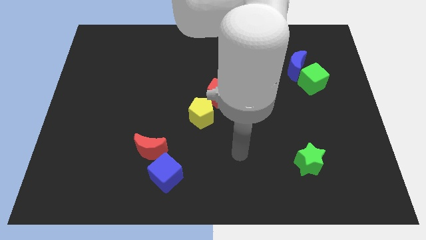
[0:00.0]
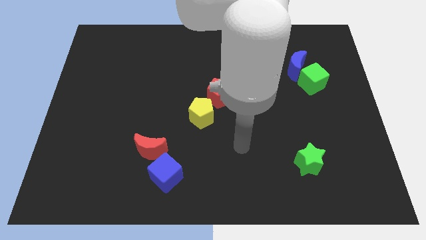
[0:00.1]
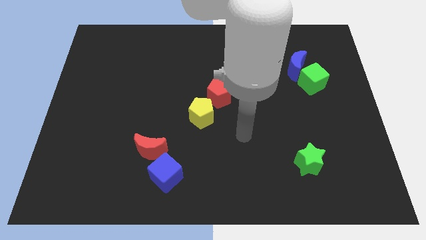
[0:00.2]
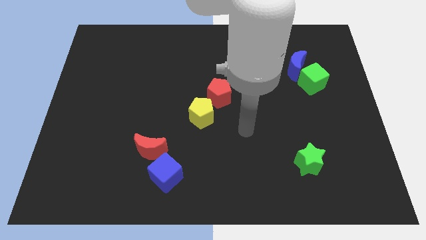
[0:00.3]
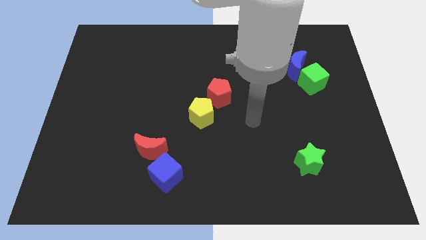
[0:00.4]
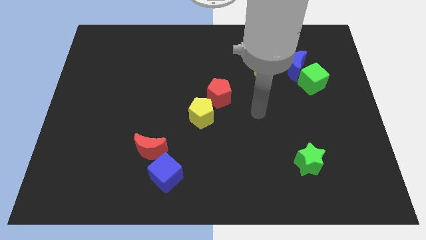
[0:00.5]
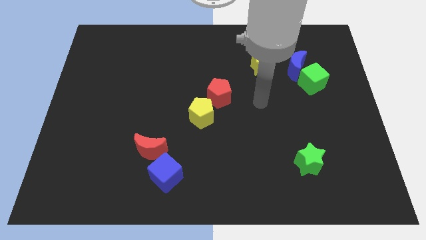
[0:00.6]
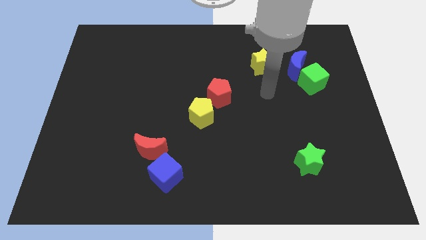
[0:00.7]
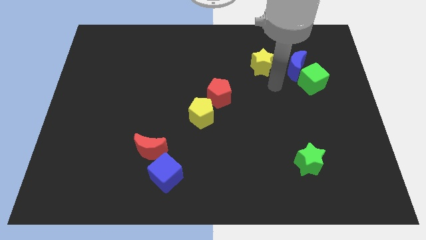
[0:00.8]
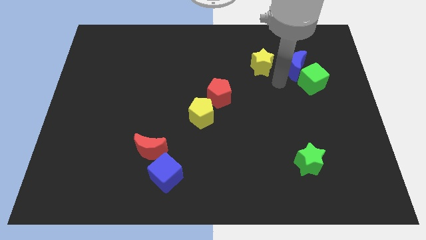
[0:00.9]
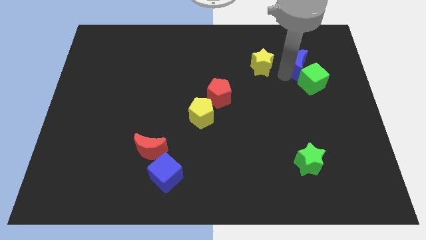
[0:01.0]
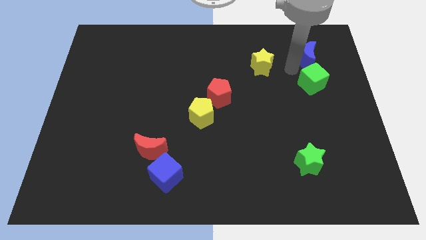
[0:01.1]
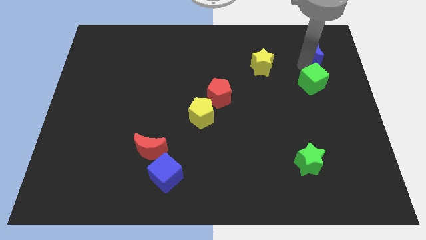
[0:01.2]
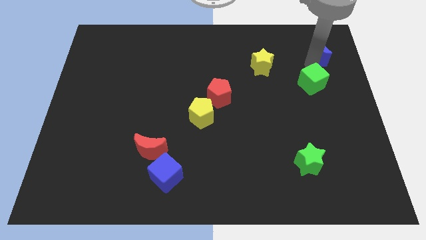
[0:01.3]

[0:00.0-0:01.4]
separate the green cube from the blue moon

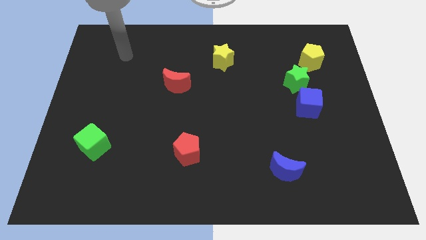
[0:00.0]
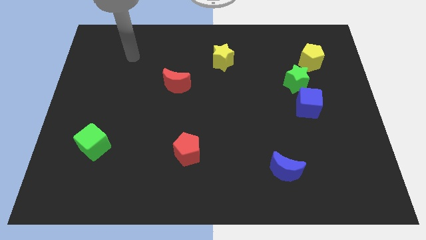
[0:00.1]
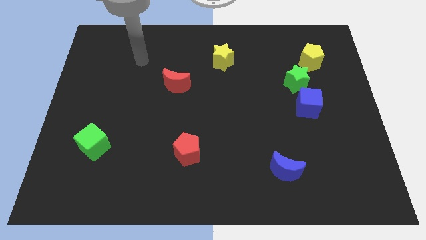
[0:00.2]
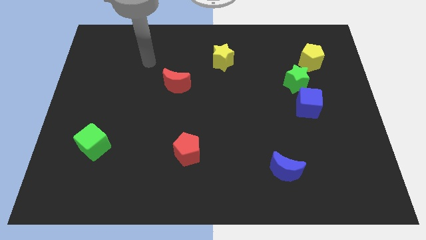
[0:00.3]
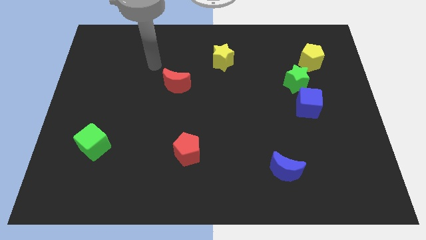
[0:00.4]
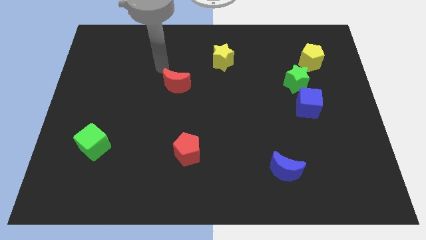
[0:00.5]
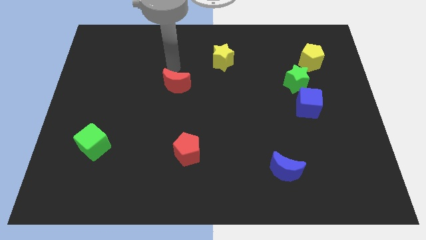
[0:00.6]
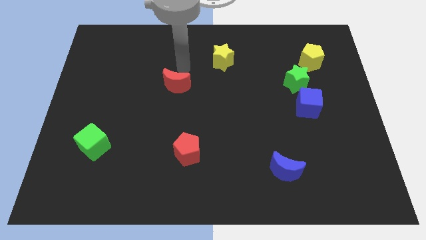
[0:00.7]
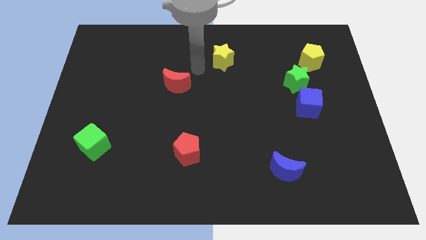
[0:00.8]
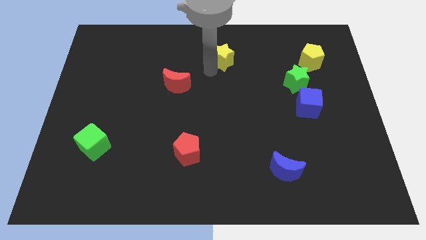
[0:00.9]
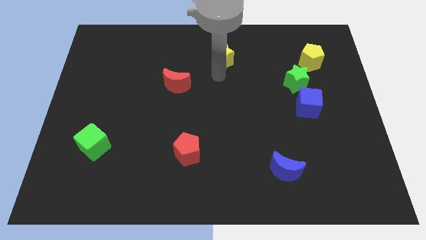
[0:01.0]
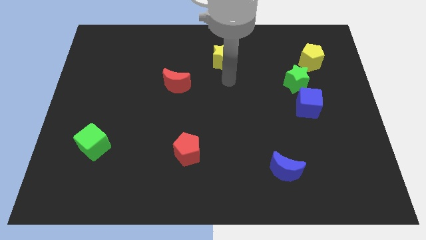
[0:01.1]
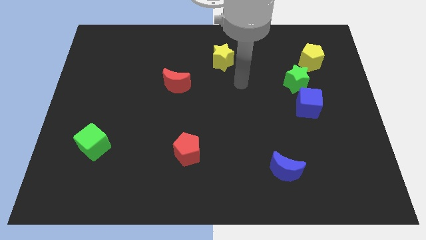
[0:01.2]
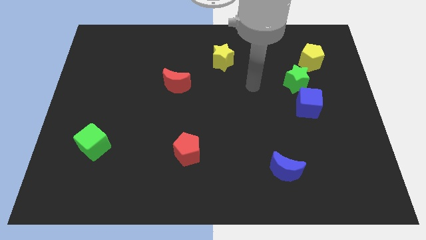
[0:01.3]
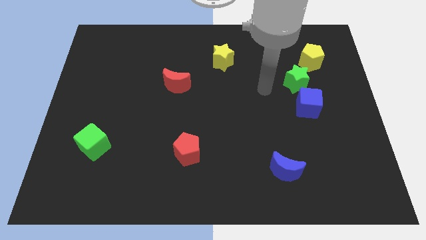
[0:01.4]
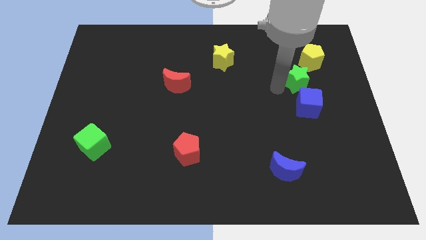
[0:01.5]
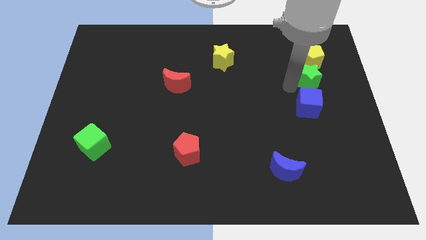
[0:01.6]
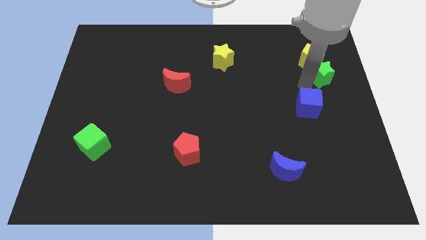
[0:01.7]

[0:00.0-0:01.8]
move the blue cube away from the green star

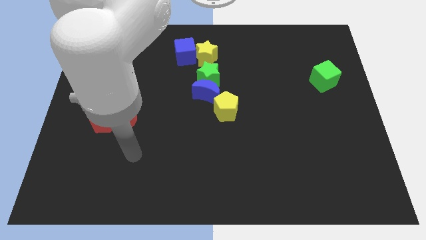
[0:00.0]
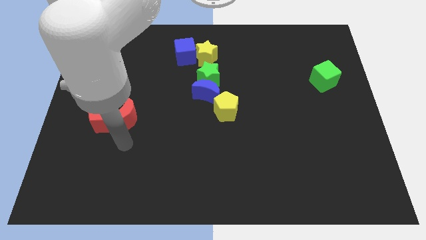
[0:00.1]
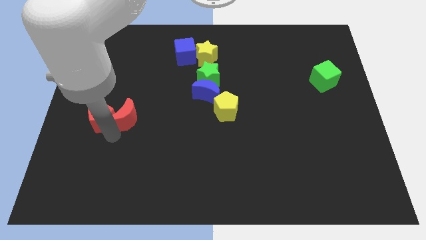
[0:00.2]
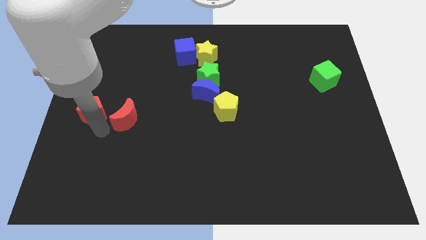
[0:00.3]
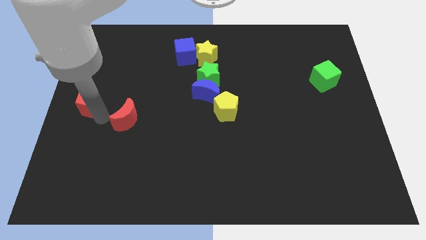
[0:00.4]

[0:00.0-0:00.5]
pull the red moon apart from the red pentagon

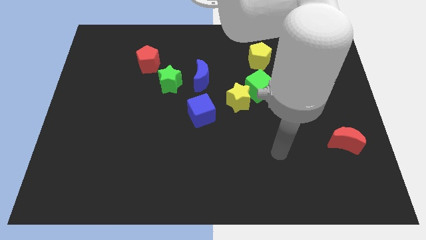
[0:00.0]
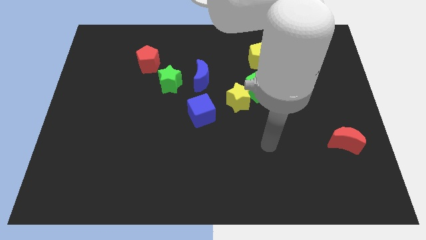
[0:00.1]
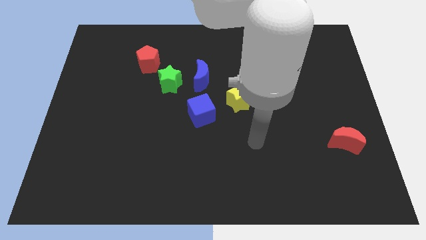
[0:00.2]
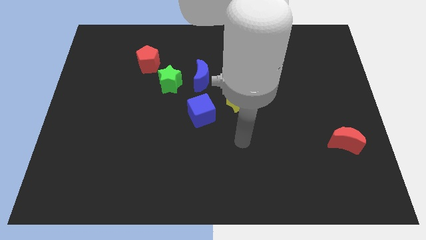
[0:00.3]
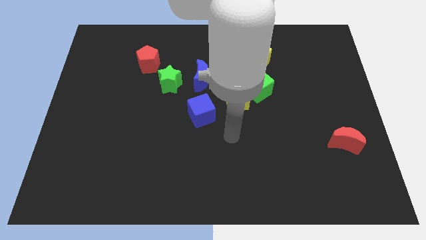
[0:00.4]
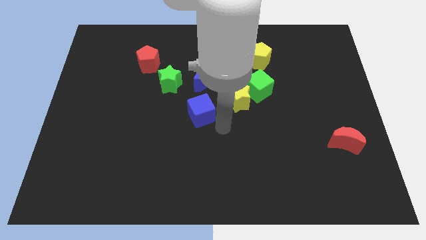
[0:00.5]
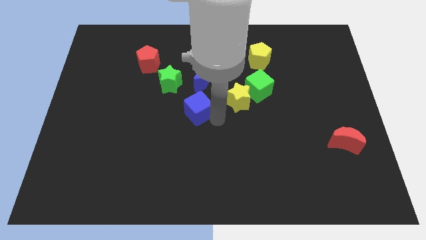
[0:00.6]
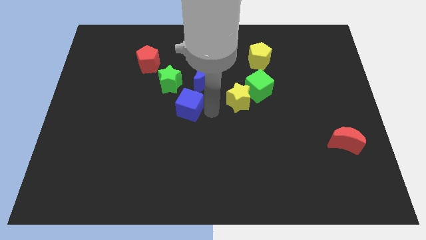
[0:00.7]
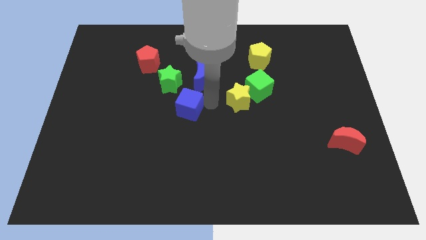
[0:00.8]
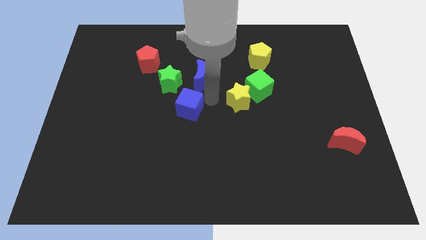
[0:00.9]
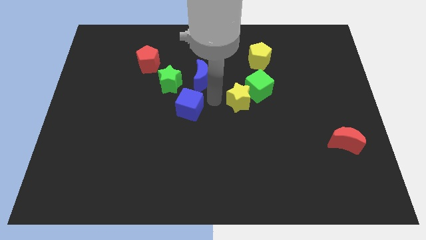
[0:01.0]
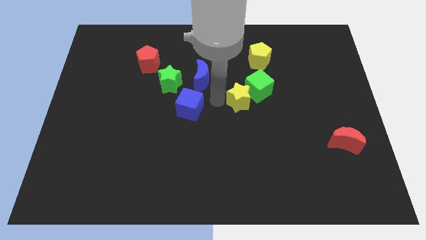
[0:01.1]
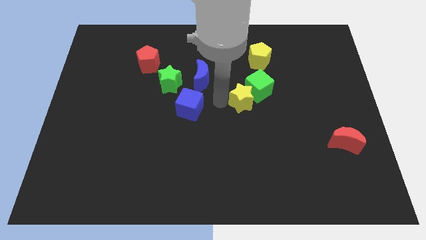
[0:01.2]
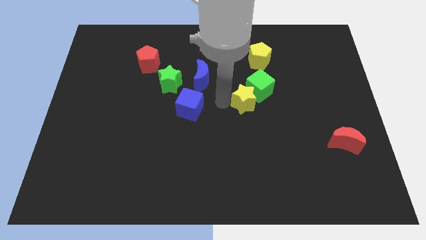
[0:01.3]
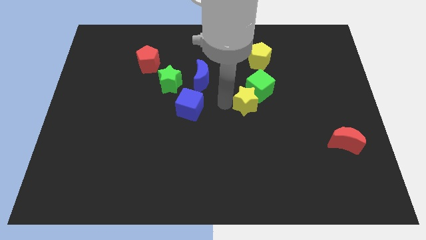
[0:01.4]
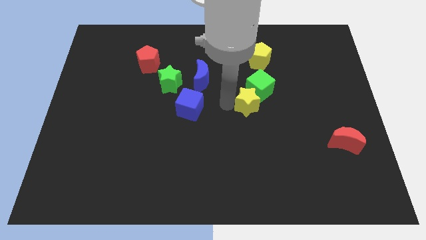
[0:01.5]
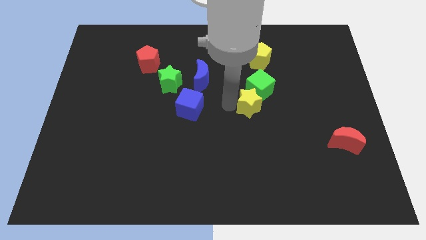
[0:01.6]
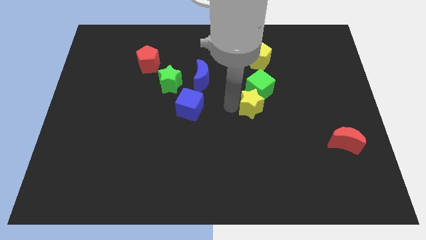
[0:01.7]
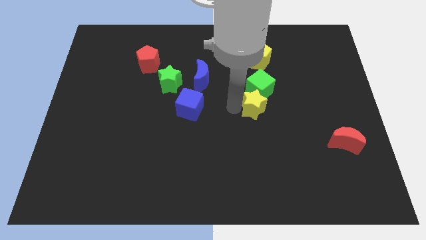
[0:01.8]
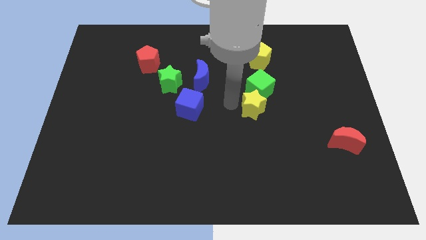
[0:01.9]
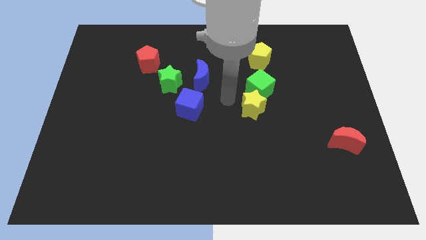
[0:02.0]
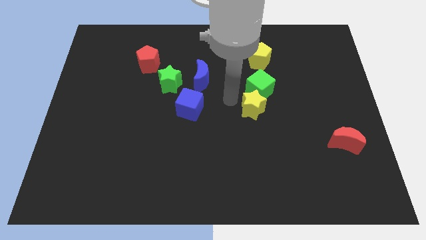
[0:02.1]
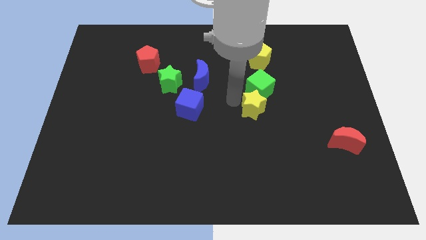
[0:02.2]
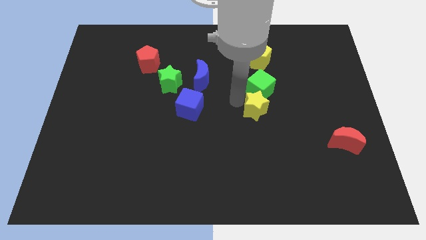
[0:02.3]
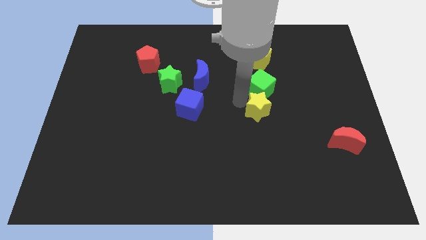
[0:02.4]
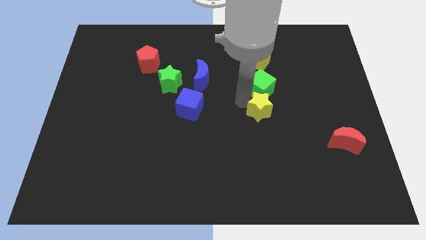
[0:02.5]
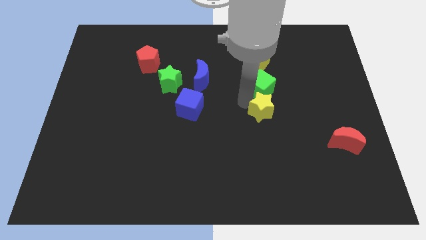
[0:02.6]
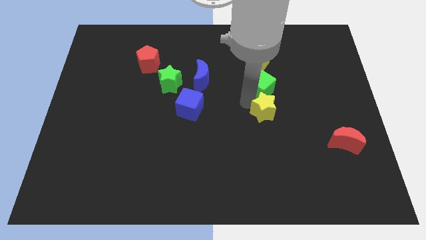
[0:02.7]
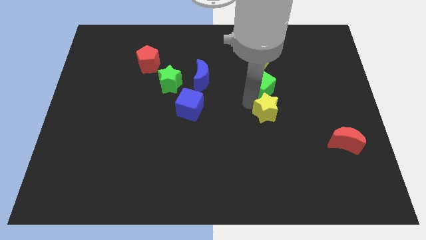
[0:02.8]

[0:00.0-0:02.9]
separate the yellow star from the green cube and blue cube

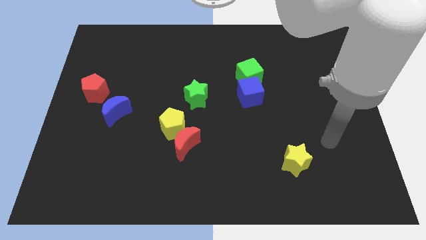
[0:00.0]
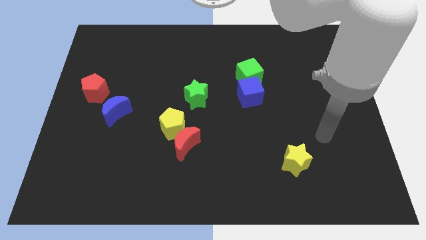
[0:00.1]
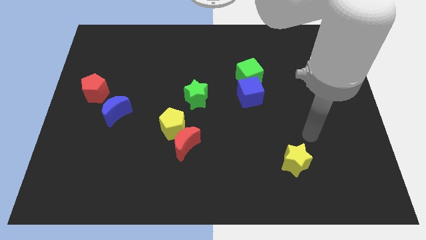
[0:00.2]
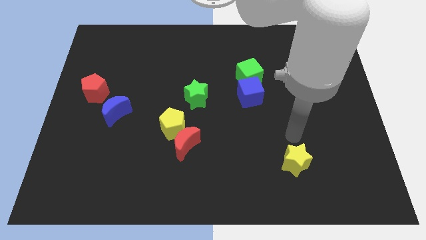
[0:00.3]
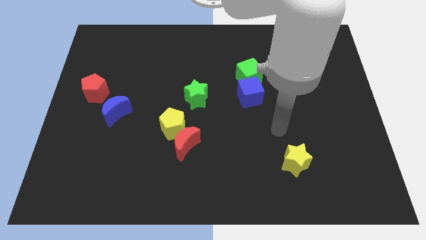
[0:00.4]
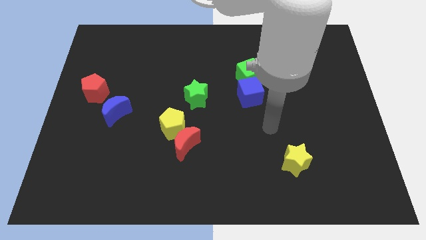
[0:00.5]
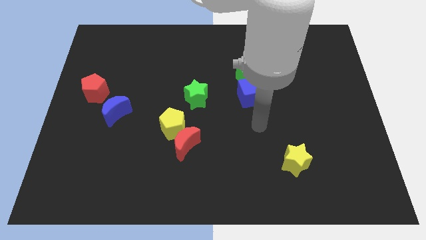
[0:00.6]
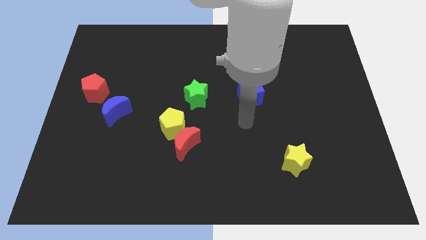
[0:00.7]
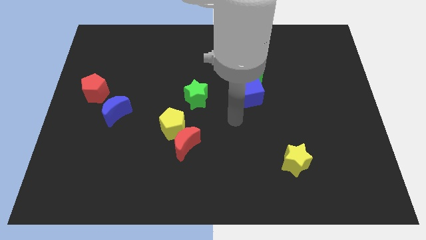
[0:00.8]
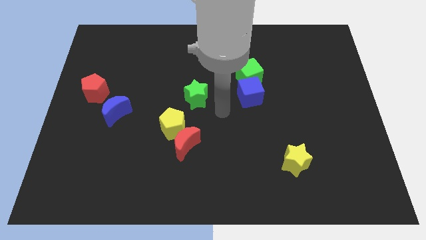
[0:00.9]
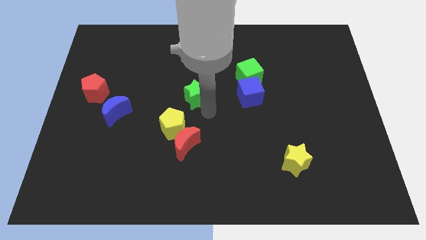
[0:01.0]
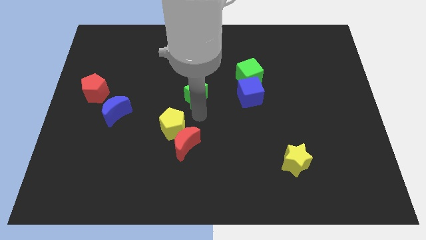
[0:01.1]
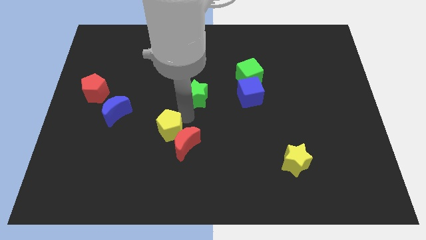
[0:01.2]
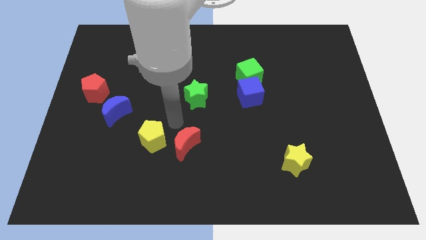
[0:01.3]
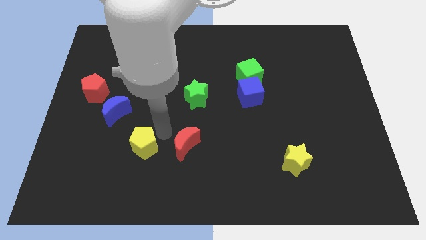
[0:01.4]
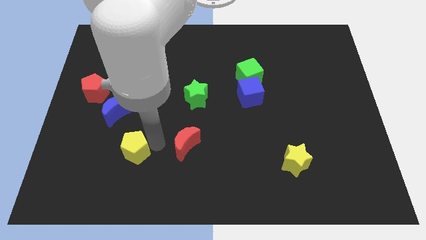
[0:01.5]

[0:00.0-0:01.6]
separate the red moon from the yellow pentagon

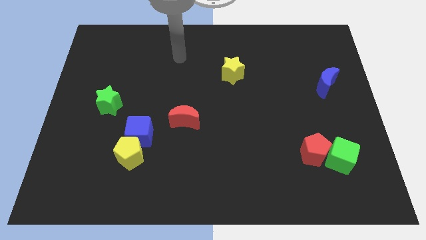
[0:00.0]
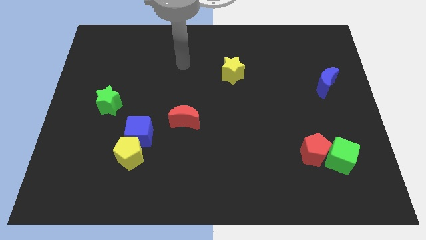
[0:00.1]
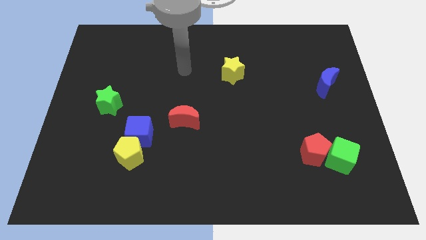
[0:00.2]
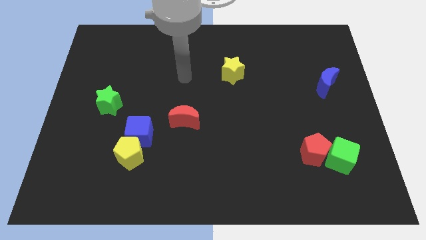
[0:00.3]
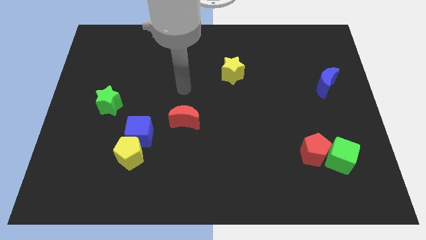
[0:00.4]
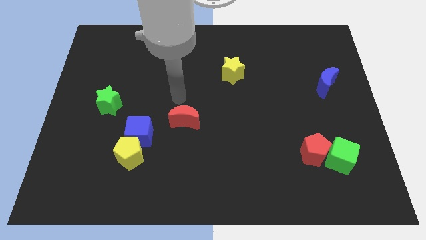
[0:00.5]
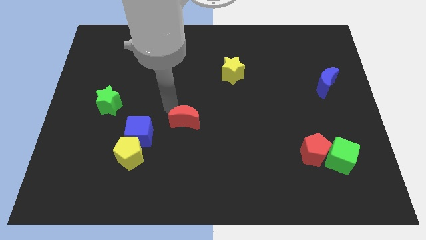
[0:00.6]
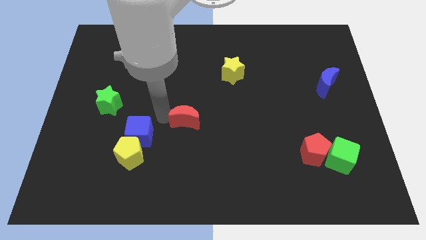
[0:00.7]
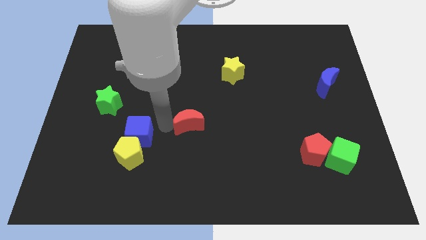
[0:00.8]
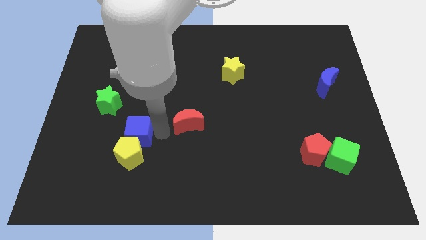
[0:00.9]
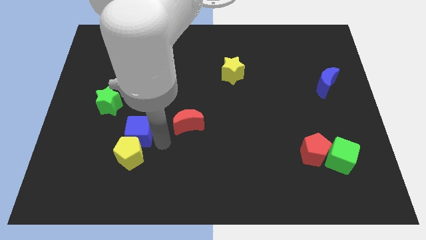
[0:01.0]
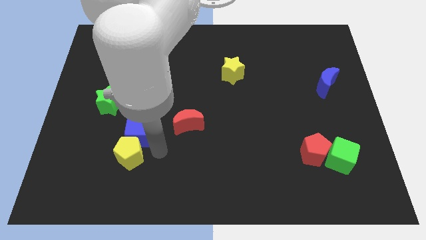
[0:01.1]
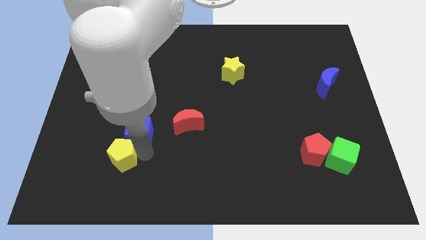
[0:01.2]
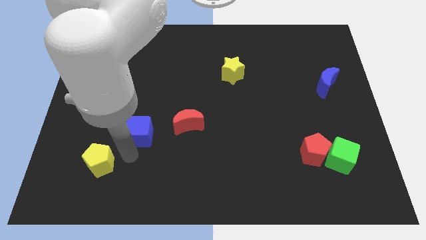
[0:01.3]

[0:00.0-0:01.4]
separate the blue cube from the yellow pentagon
